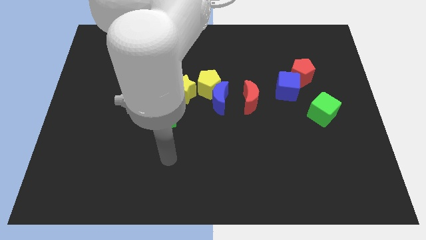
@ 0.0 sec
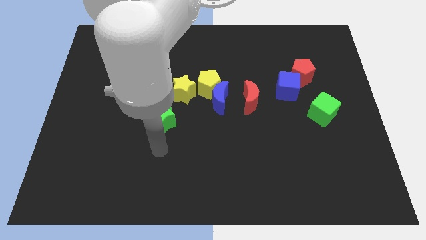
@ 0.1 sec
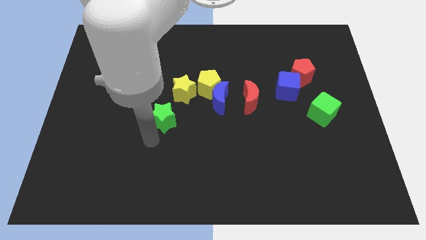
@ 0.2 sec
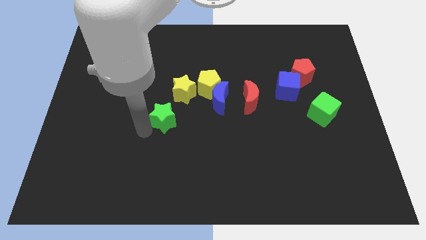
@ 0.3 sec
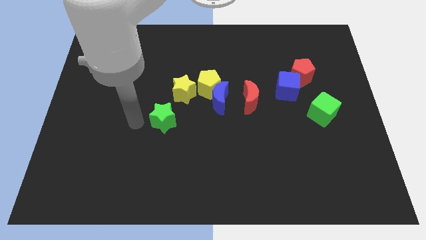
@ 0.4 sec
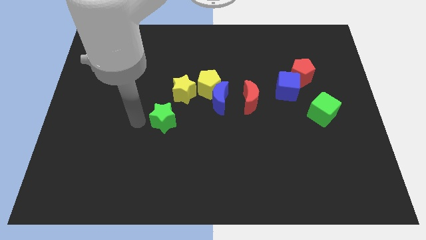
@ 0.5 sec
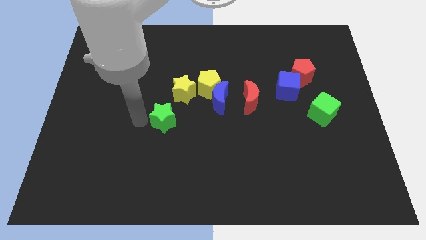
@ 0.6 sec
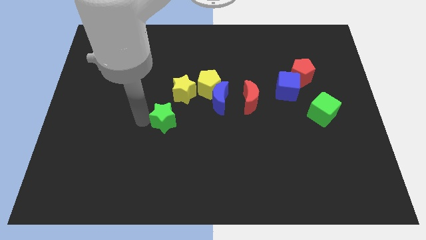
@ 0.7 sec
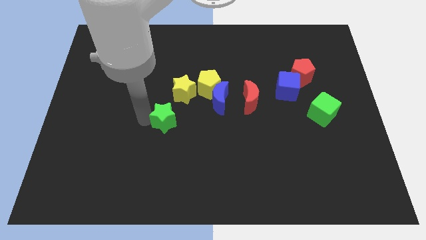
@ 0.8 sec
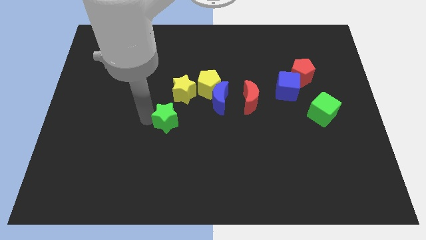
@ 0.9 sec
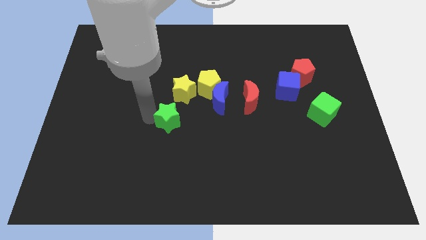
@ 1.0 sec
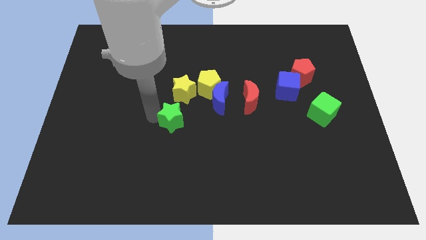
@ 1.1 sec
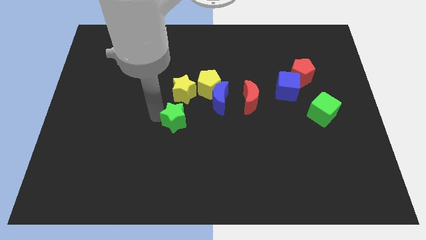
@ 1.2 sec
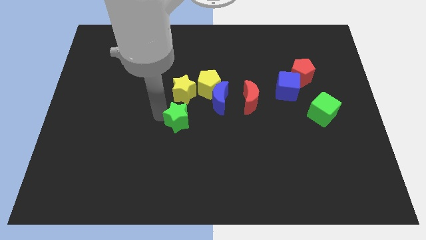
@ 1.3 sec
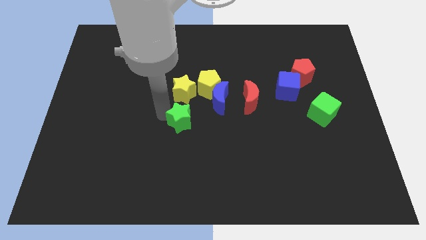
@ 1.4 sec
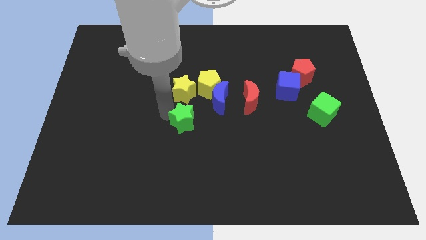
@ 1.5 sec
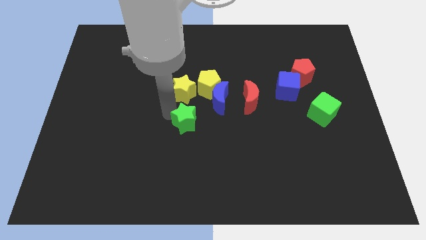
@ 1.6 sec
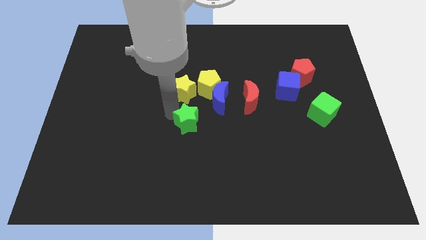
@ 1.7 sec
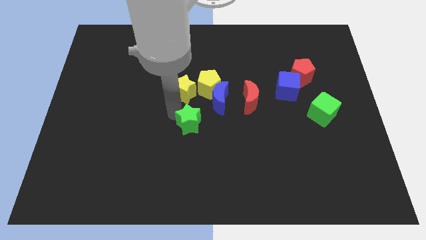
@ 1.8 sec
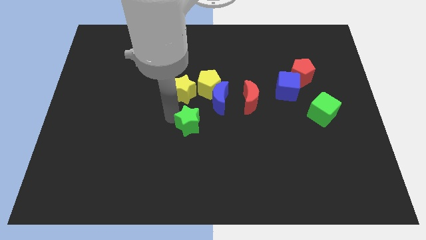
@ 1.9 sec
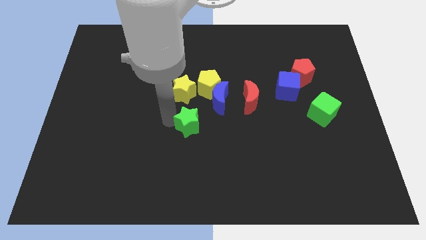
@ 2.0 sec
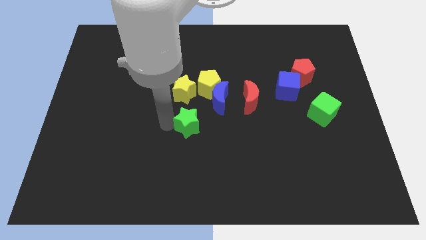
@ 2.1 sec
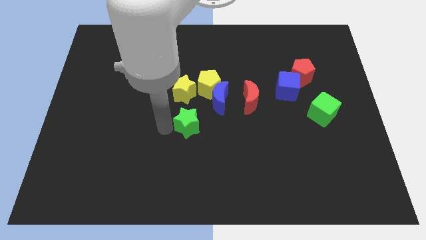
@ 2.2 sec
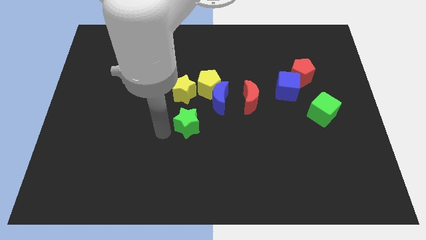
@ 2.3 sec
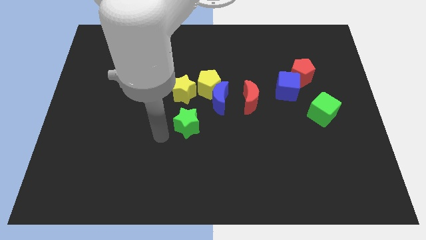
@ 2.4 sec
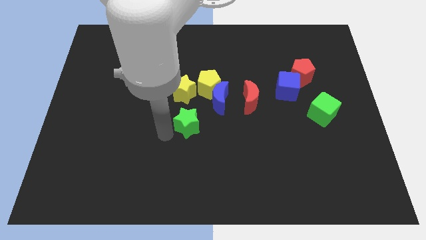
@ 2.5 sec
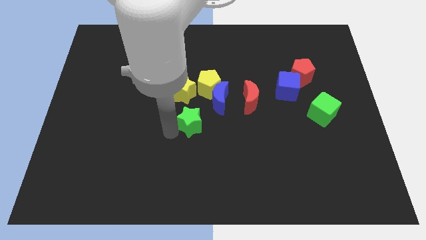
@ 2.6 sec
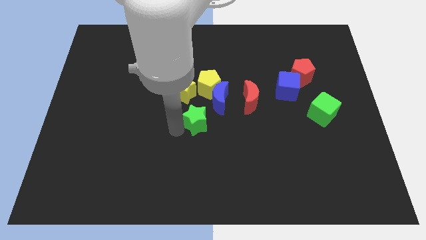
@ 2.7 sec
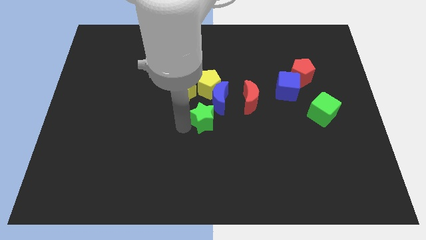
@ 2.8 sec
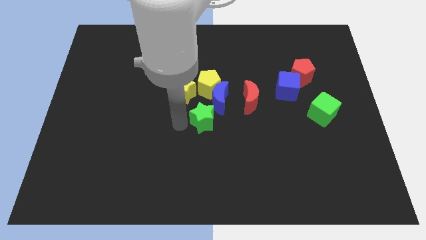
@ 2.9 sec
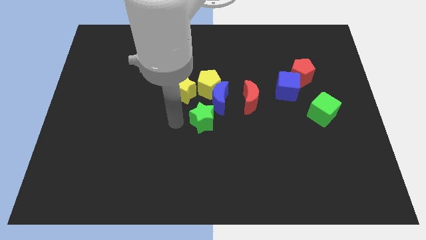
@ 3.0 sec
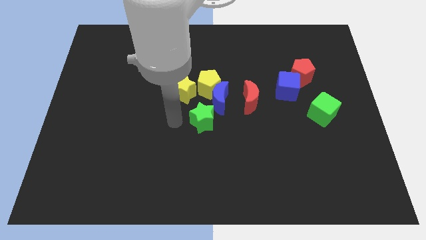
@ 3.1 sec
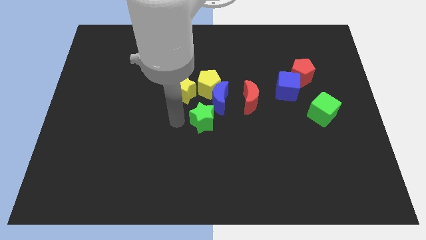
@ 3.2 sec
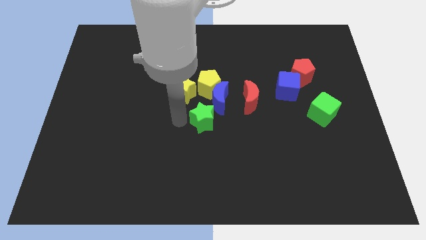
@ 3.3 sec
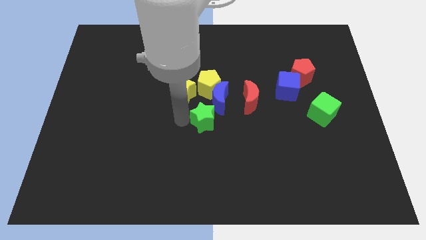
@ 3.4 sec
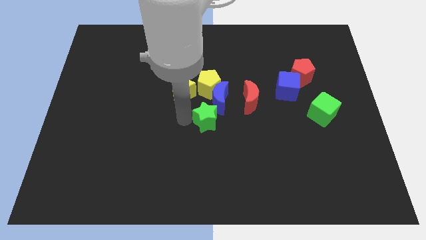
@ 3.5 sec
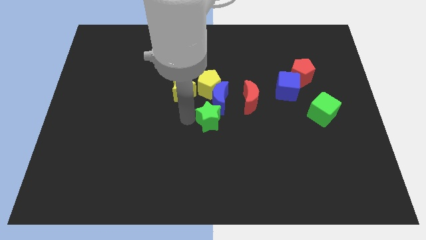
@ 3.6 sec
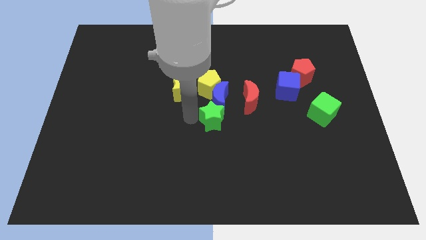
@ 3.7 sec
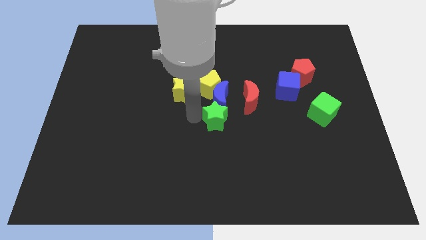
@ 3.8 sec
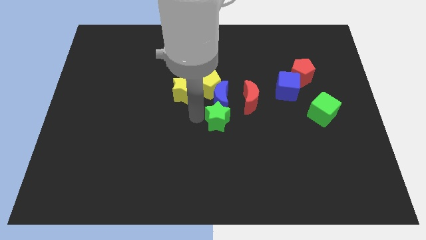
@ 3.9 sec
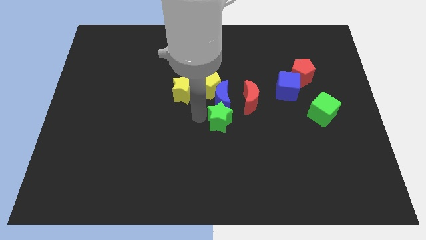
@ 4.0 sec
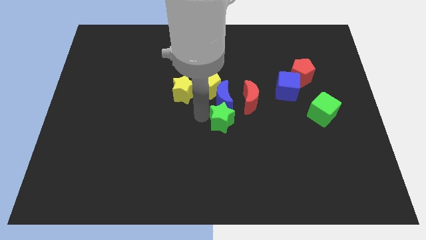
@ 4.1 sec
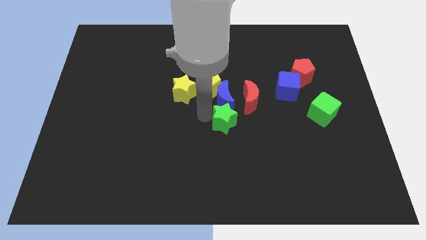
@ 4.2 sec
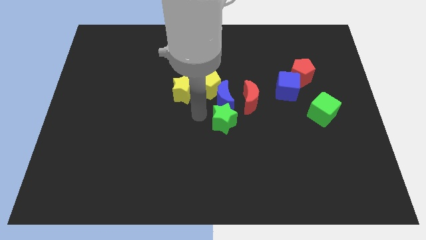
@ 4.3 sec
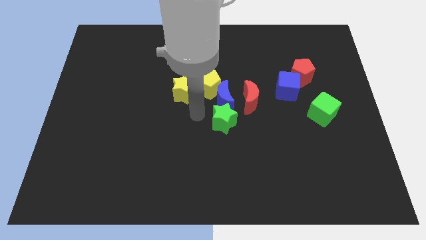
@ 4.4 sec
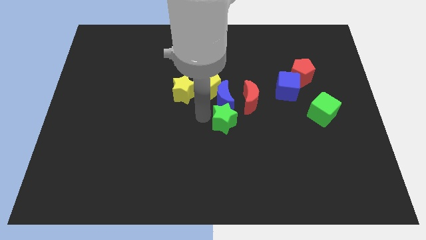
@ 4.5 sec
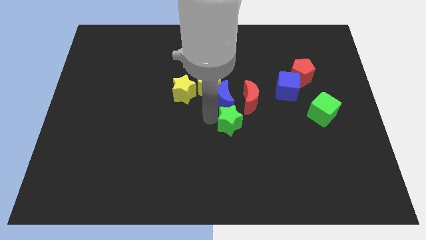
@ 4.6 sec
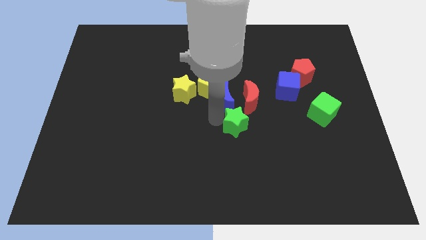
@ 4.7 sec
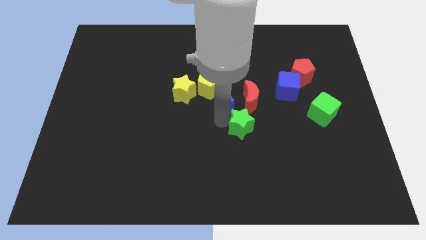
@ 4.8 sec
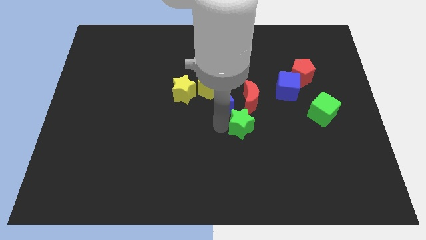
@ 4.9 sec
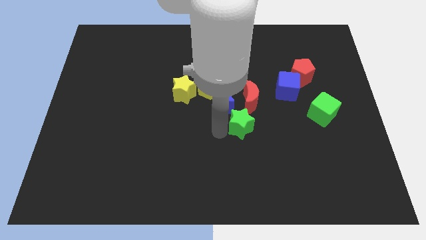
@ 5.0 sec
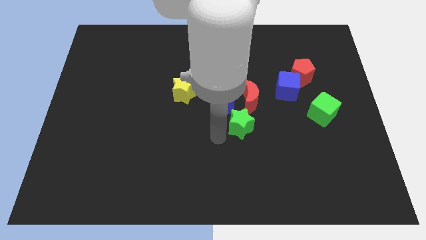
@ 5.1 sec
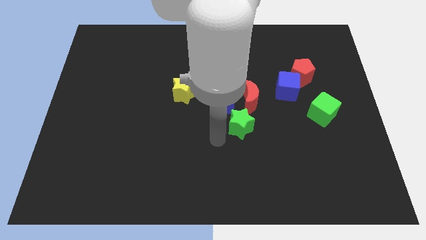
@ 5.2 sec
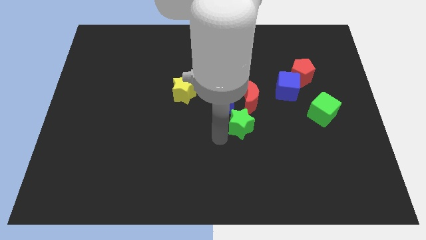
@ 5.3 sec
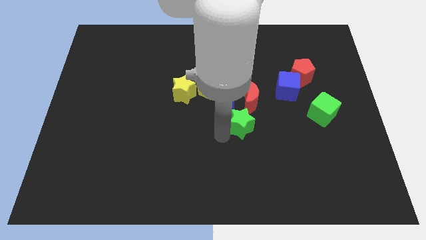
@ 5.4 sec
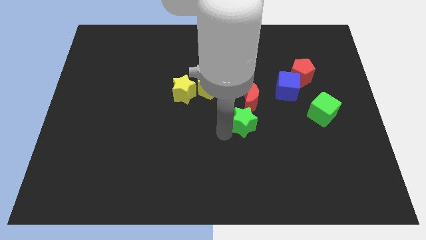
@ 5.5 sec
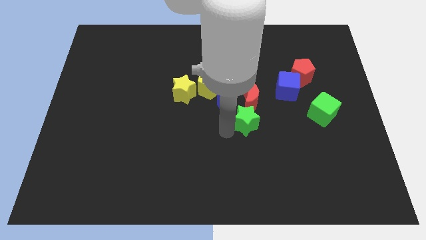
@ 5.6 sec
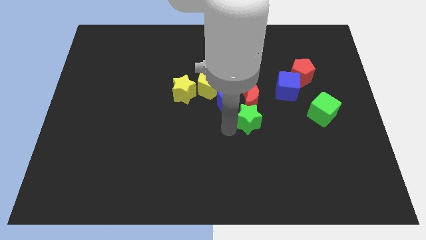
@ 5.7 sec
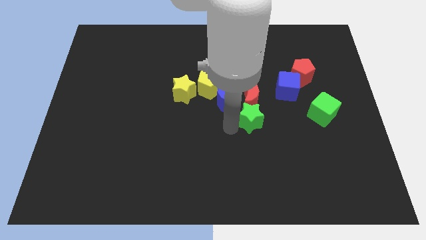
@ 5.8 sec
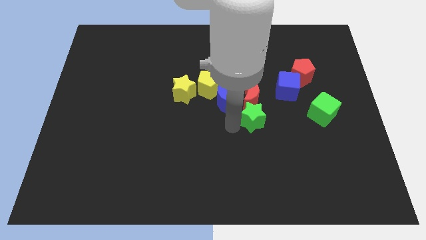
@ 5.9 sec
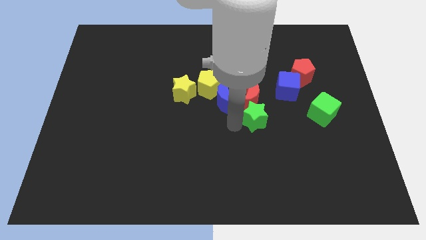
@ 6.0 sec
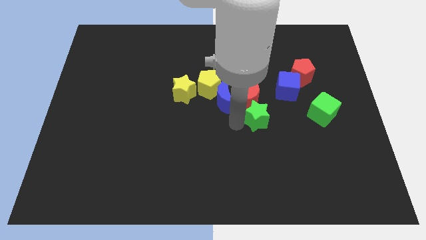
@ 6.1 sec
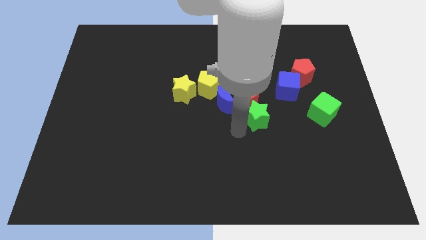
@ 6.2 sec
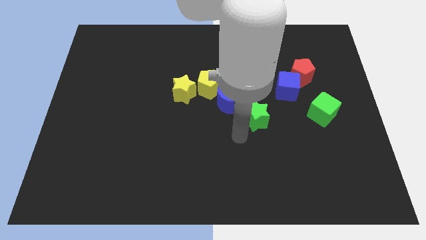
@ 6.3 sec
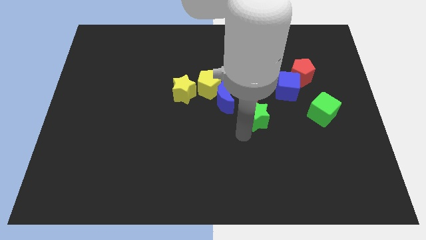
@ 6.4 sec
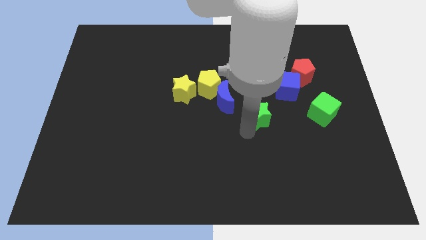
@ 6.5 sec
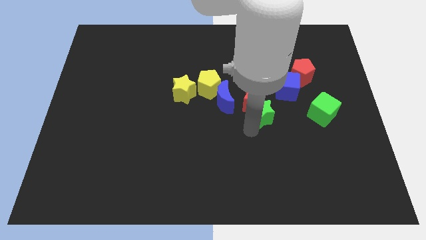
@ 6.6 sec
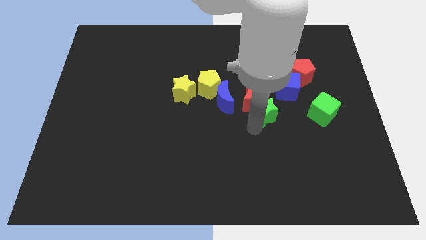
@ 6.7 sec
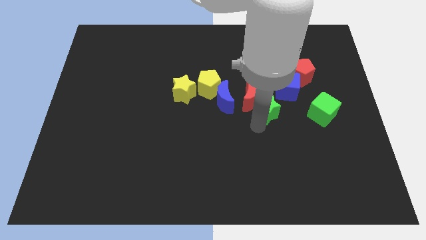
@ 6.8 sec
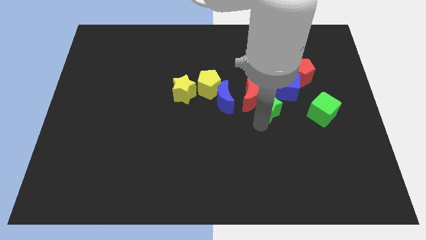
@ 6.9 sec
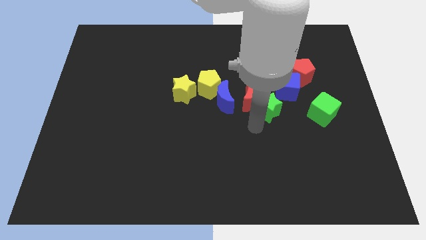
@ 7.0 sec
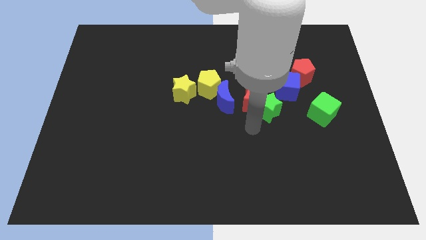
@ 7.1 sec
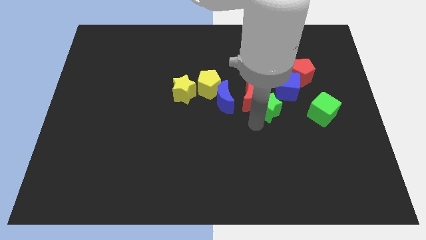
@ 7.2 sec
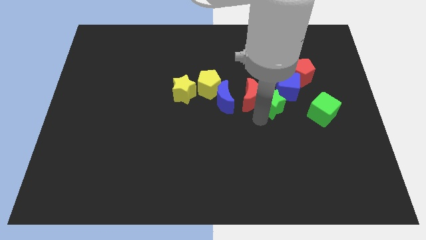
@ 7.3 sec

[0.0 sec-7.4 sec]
push the green star to the bottom left of the red pentagon
